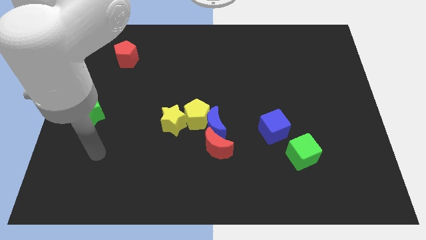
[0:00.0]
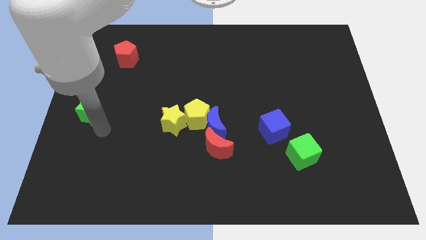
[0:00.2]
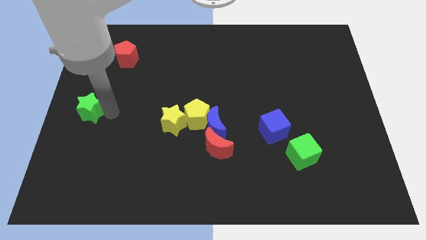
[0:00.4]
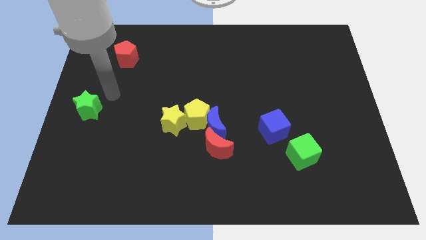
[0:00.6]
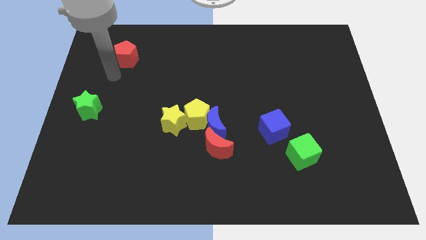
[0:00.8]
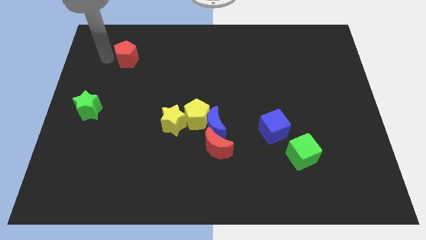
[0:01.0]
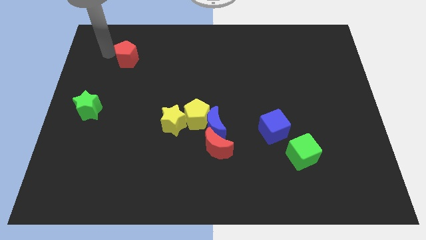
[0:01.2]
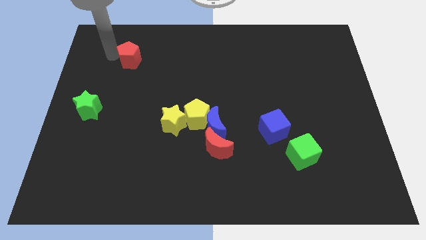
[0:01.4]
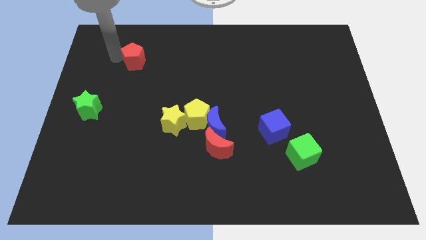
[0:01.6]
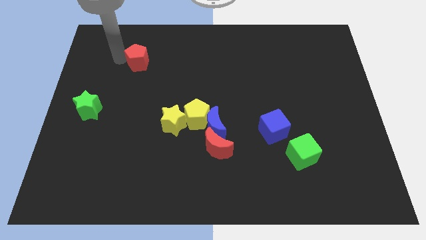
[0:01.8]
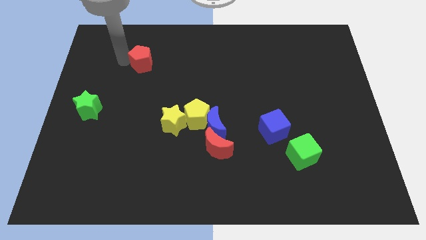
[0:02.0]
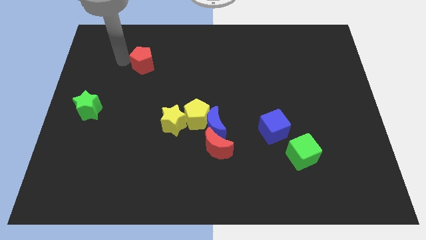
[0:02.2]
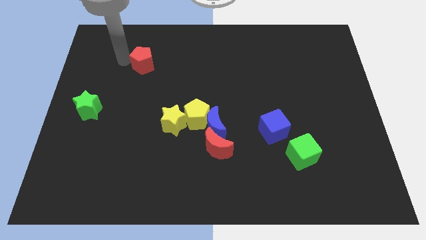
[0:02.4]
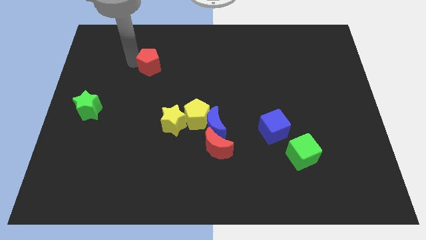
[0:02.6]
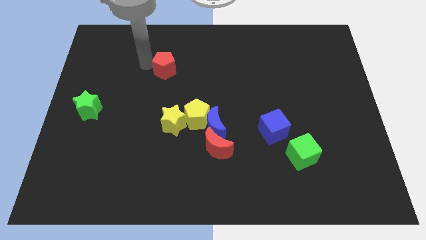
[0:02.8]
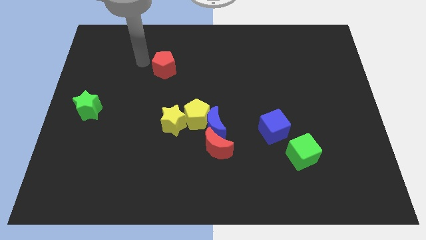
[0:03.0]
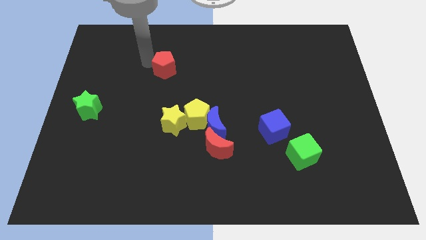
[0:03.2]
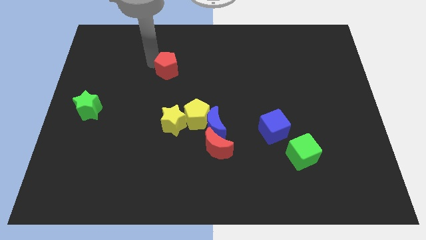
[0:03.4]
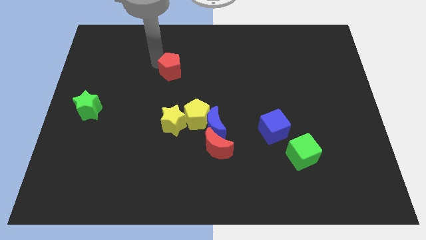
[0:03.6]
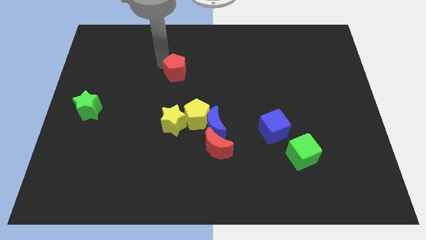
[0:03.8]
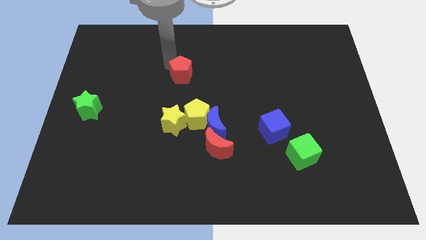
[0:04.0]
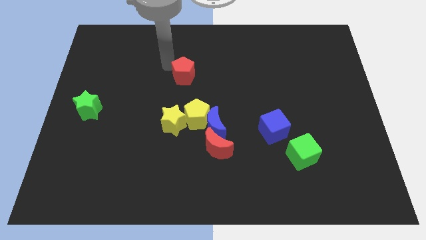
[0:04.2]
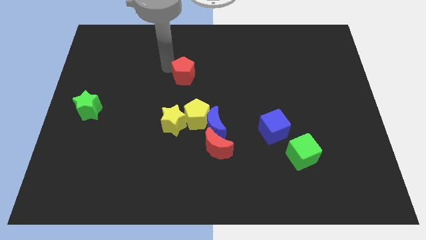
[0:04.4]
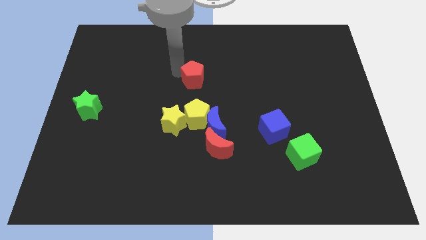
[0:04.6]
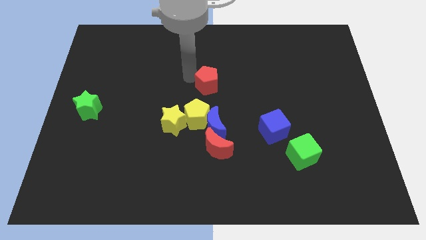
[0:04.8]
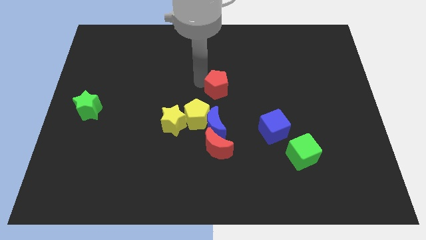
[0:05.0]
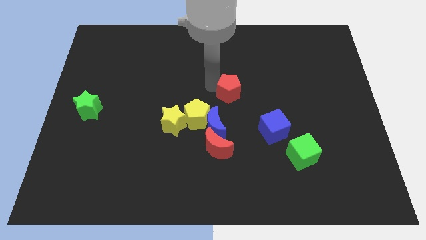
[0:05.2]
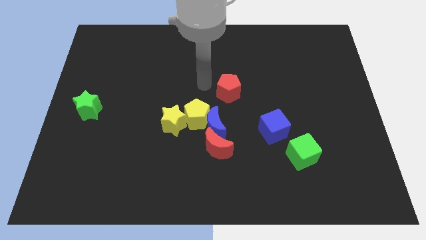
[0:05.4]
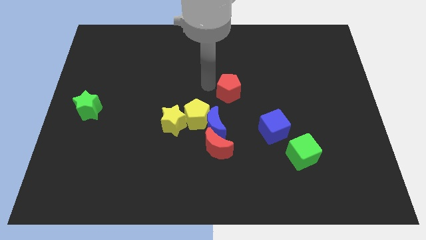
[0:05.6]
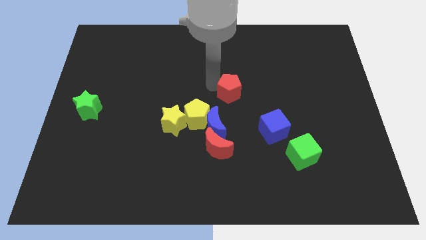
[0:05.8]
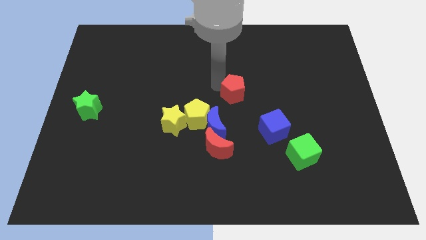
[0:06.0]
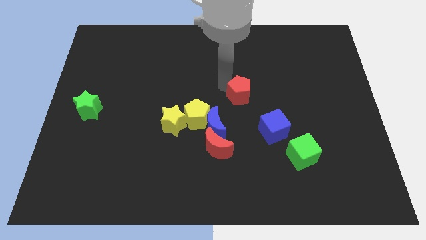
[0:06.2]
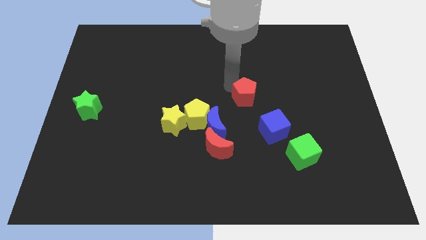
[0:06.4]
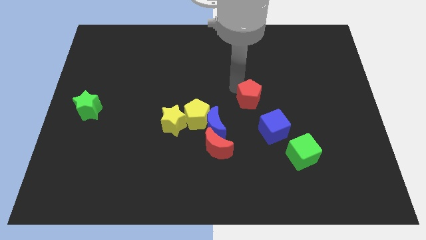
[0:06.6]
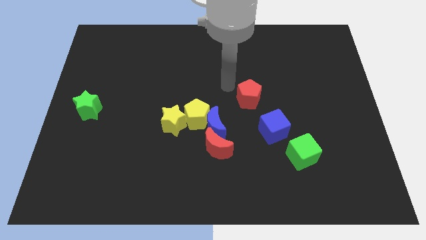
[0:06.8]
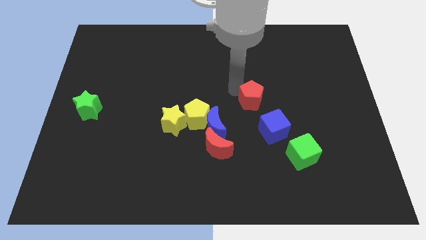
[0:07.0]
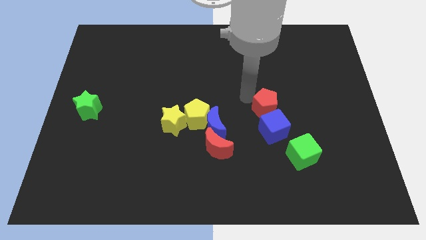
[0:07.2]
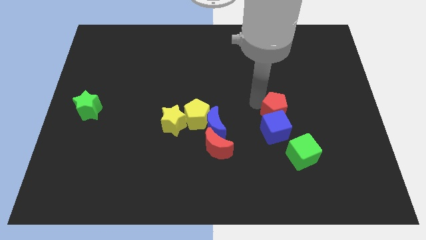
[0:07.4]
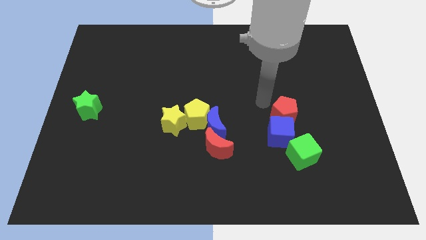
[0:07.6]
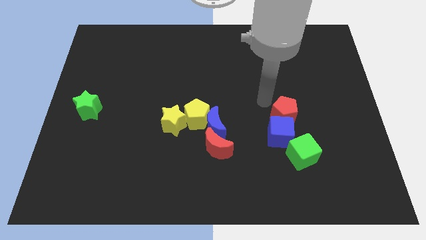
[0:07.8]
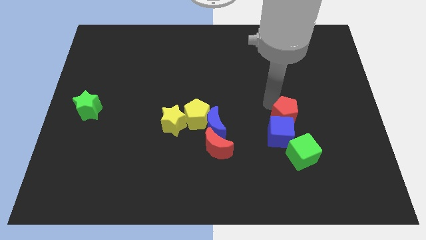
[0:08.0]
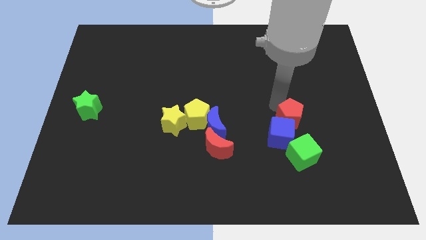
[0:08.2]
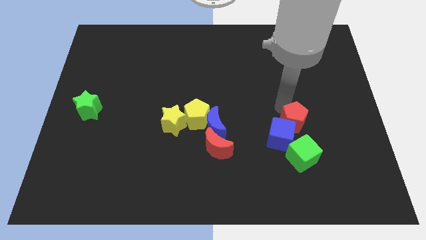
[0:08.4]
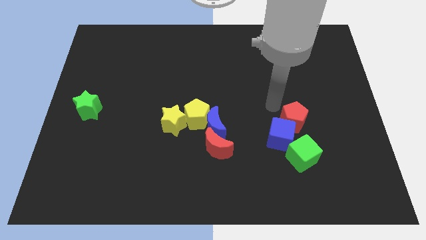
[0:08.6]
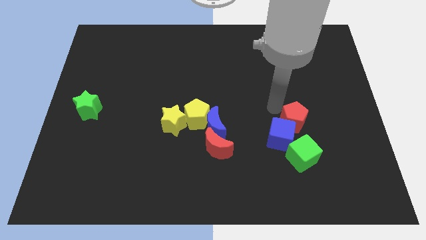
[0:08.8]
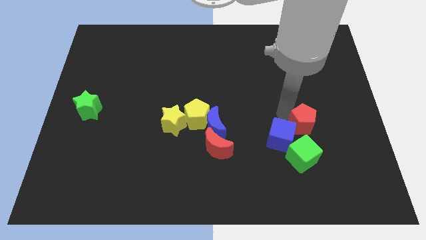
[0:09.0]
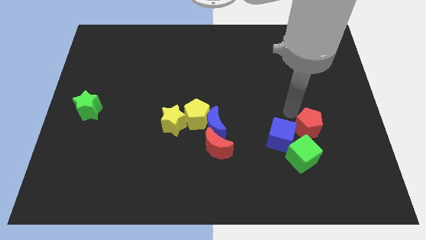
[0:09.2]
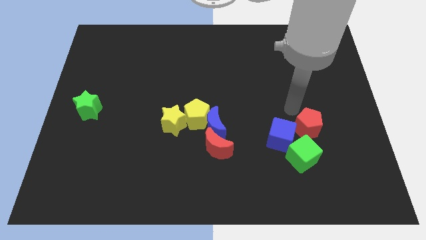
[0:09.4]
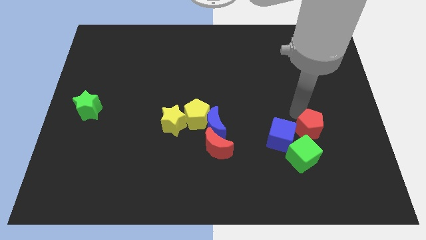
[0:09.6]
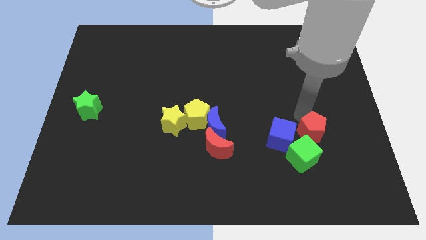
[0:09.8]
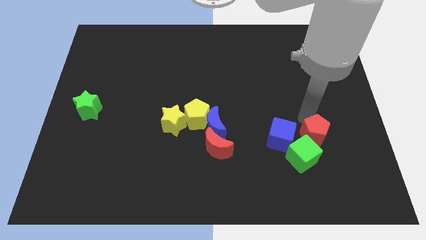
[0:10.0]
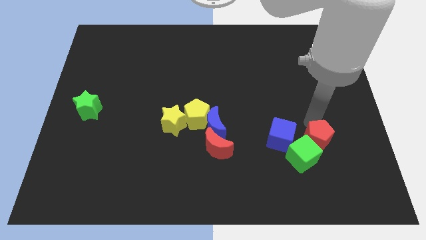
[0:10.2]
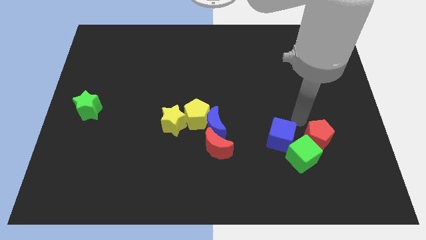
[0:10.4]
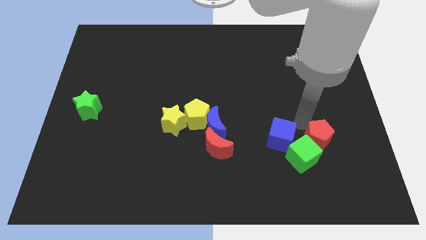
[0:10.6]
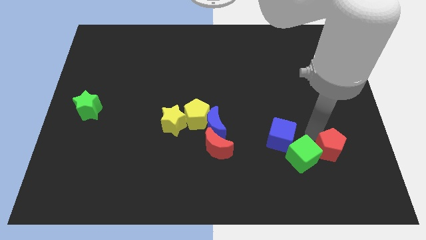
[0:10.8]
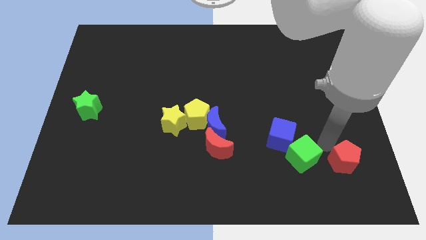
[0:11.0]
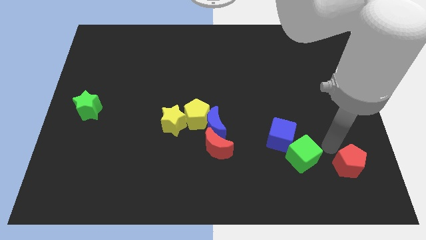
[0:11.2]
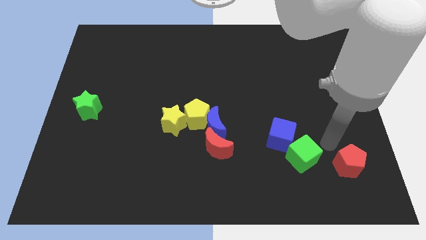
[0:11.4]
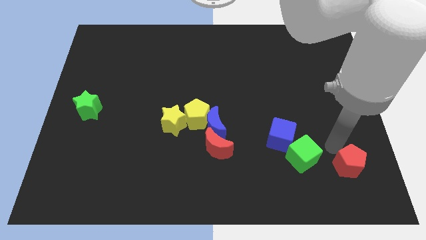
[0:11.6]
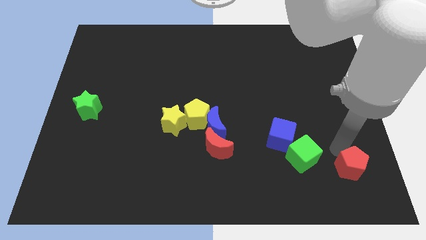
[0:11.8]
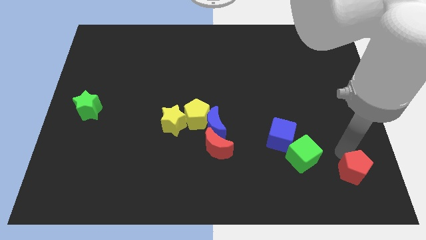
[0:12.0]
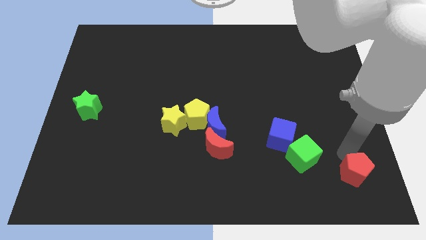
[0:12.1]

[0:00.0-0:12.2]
slide the red pentagon to the bottom right of the board

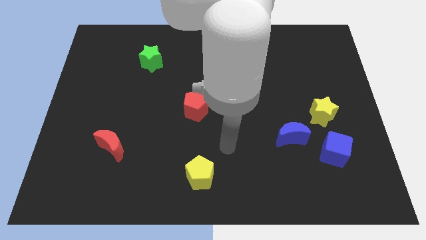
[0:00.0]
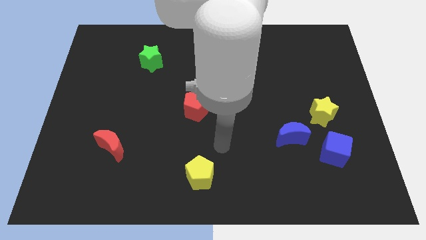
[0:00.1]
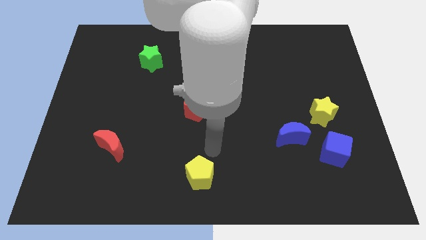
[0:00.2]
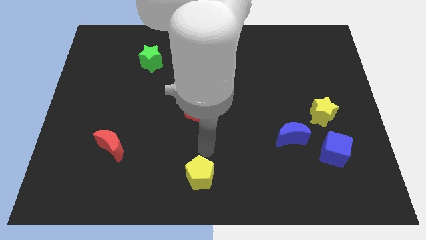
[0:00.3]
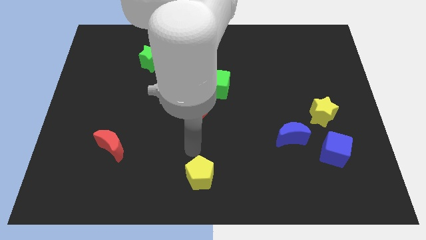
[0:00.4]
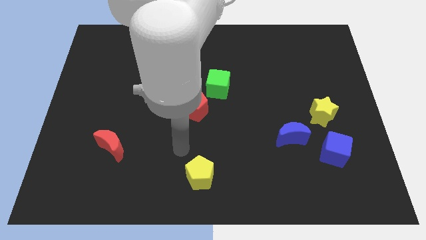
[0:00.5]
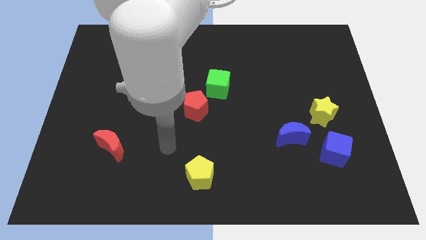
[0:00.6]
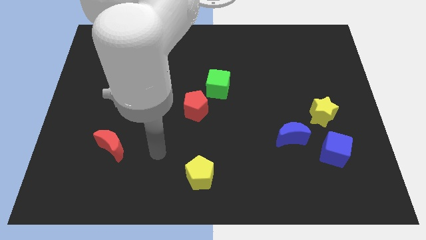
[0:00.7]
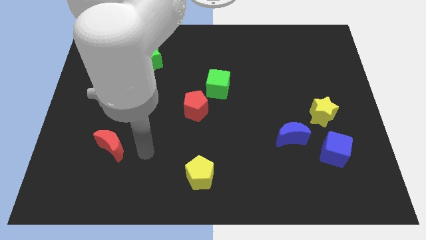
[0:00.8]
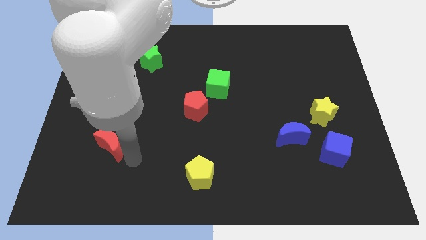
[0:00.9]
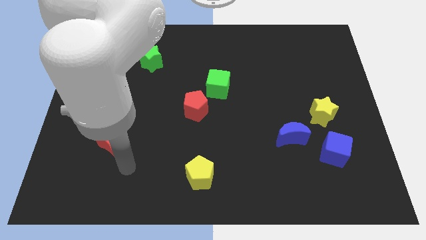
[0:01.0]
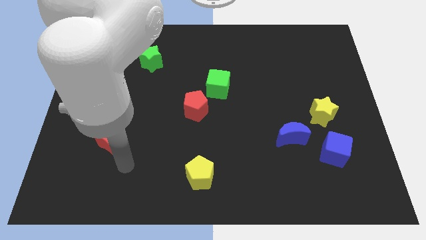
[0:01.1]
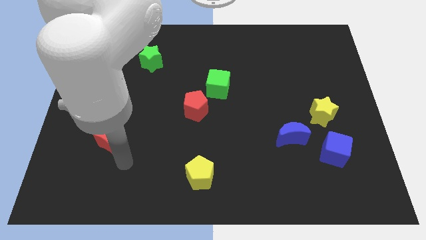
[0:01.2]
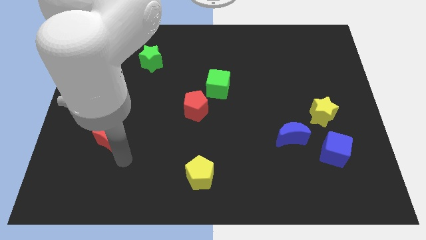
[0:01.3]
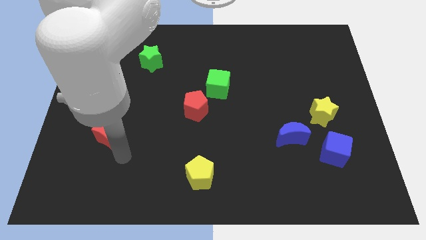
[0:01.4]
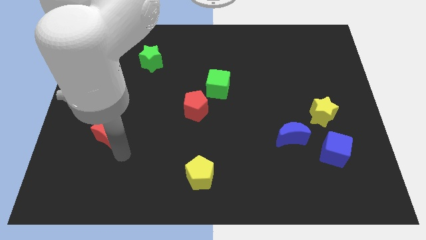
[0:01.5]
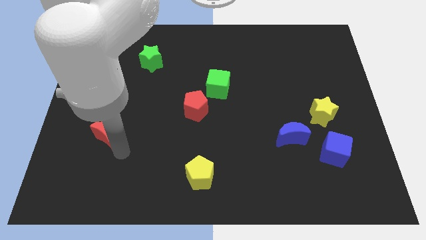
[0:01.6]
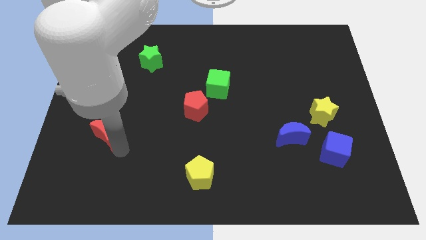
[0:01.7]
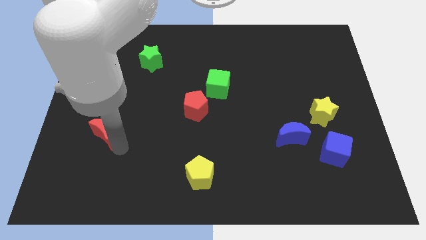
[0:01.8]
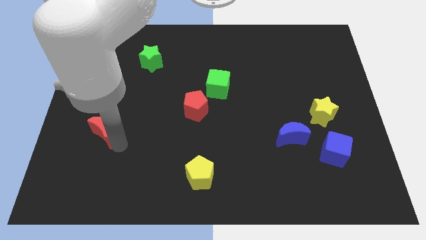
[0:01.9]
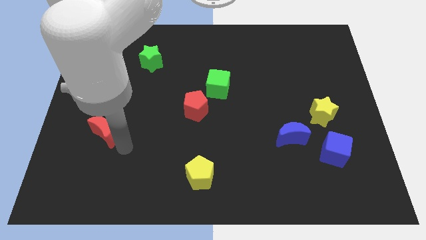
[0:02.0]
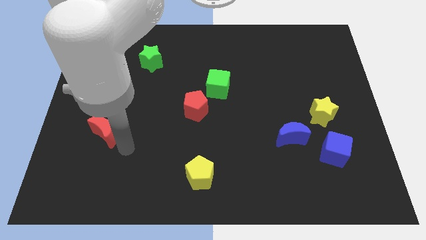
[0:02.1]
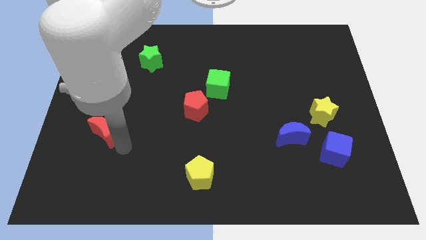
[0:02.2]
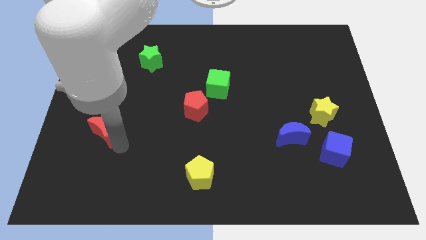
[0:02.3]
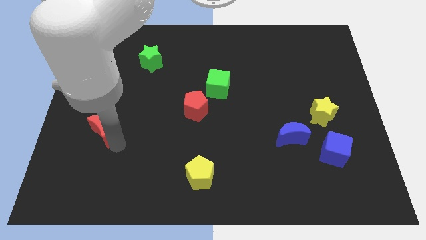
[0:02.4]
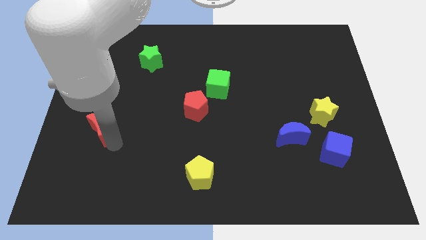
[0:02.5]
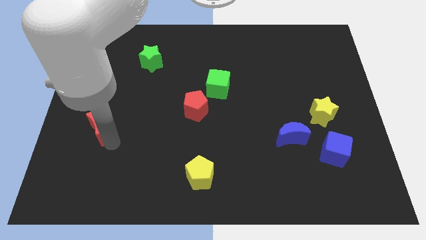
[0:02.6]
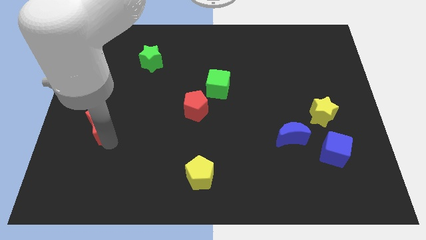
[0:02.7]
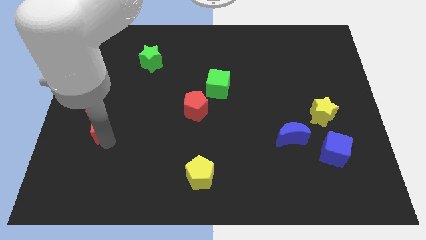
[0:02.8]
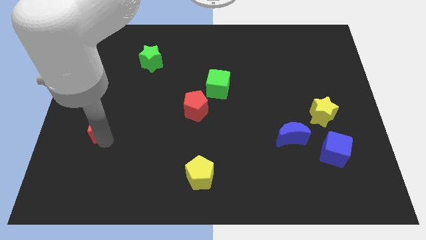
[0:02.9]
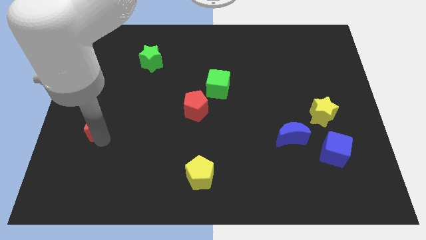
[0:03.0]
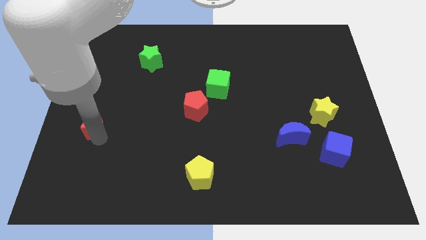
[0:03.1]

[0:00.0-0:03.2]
push the red moon to the center left
